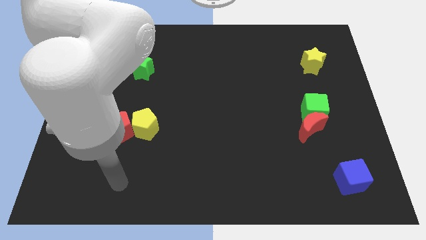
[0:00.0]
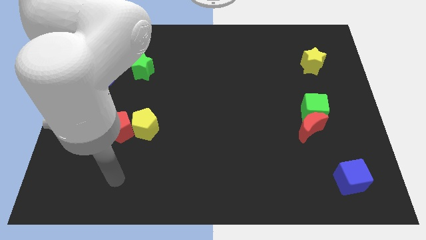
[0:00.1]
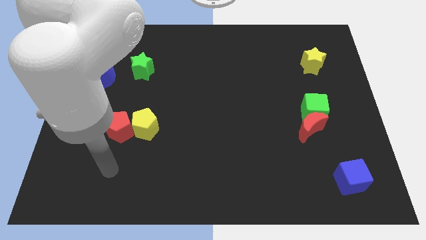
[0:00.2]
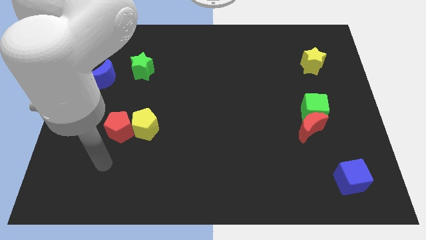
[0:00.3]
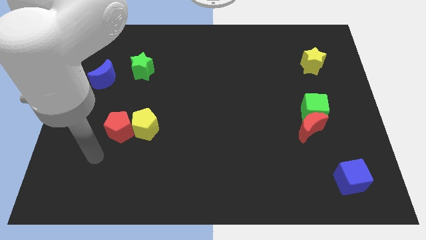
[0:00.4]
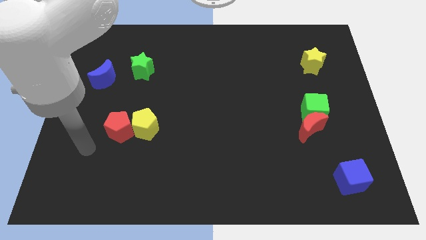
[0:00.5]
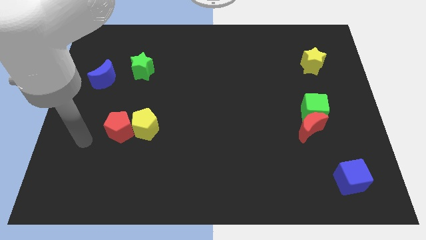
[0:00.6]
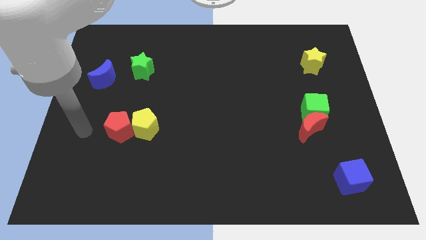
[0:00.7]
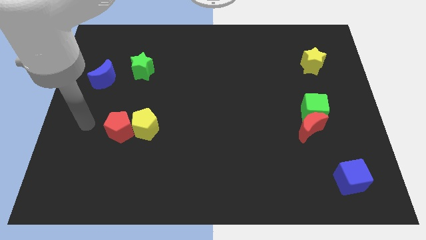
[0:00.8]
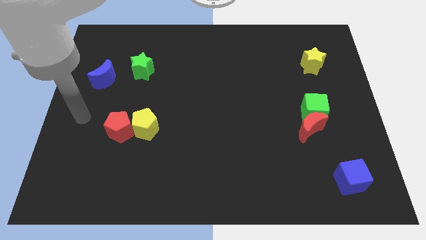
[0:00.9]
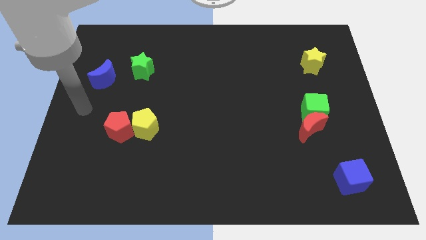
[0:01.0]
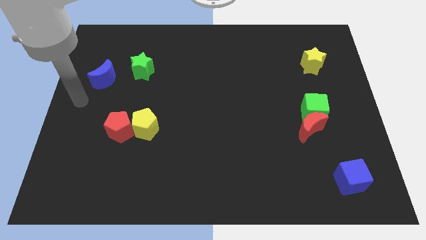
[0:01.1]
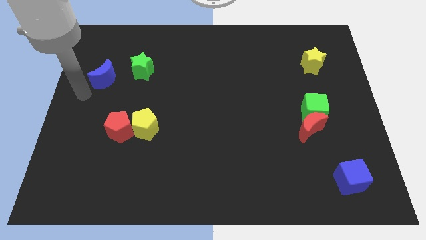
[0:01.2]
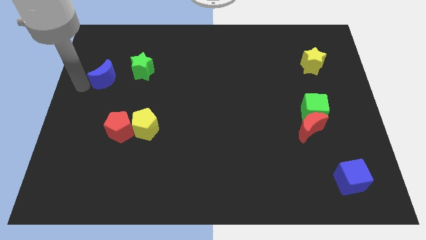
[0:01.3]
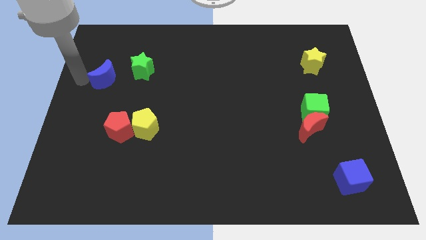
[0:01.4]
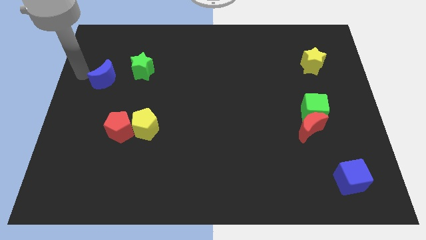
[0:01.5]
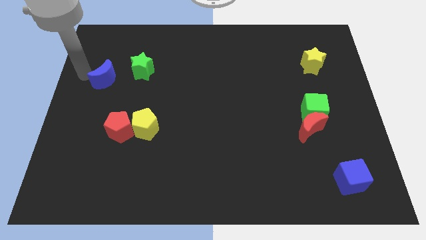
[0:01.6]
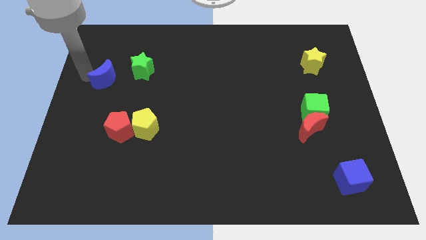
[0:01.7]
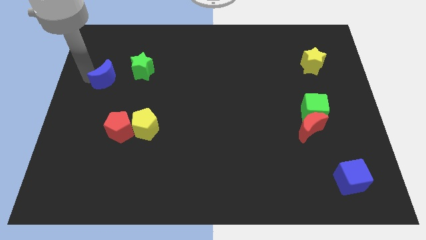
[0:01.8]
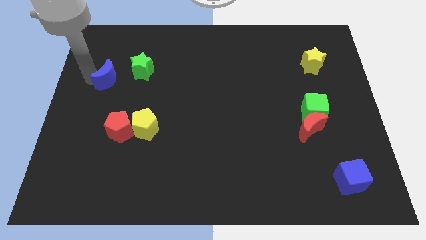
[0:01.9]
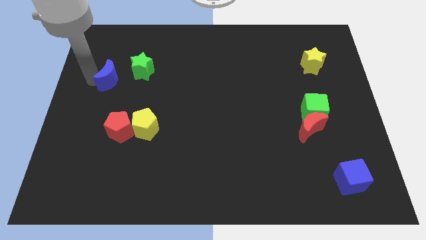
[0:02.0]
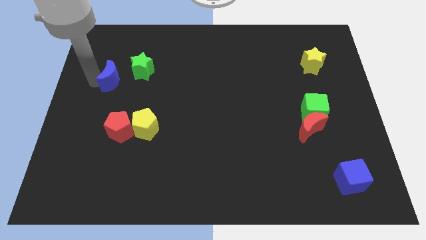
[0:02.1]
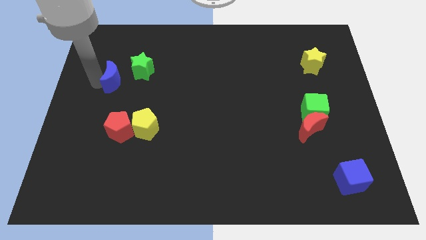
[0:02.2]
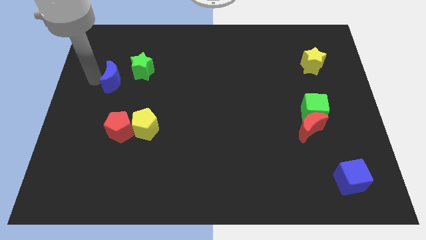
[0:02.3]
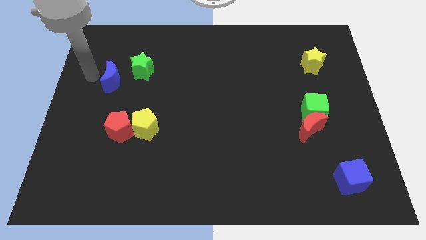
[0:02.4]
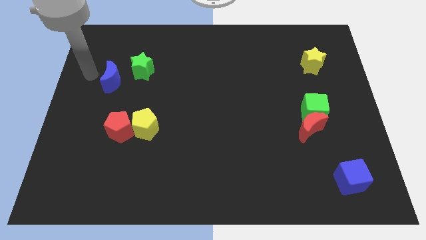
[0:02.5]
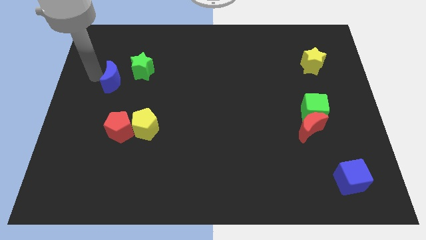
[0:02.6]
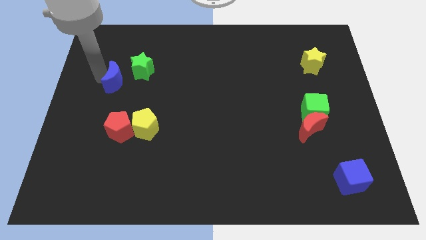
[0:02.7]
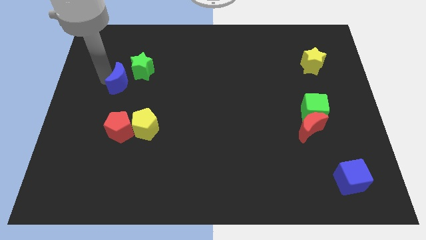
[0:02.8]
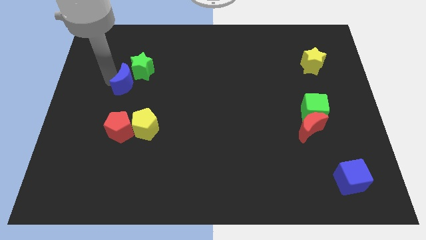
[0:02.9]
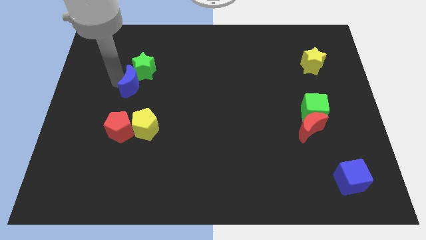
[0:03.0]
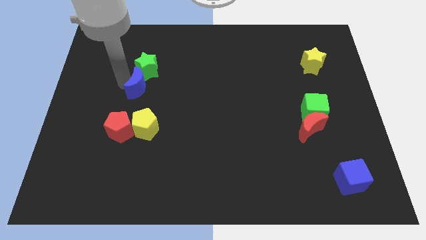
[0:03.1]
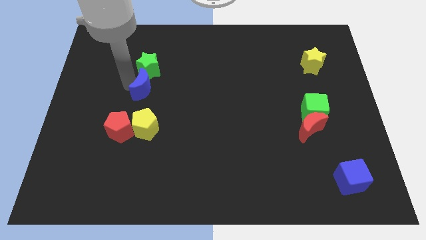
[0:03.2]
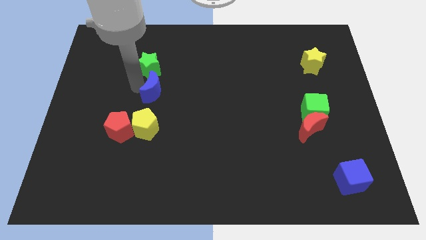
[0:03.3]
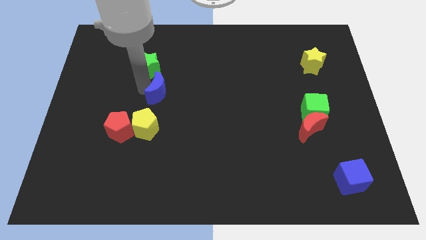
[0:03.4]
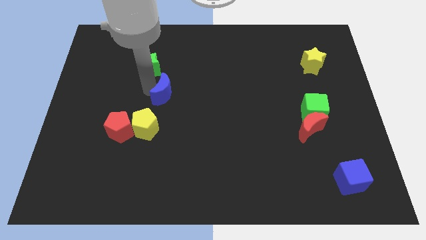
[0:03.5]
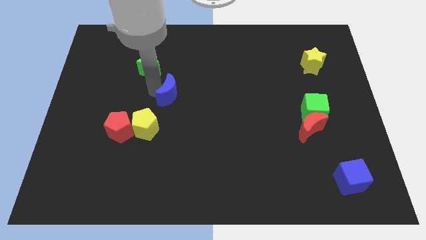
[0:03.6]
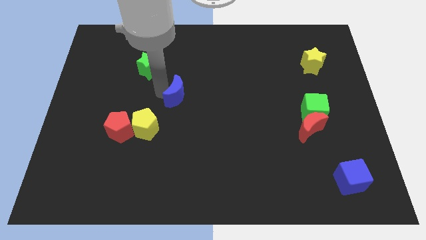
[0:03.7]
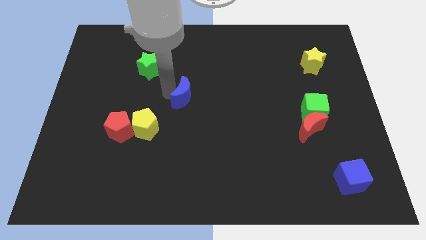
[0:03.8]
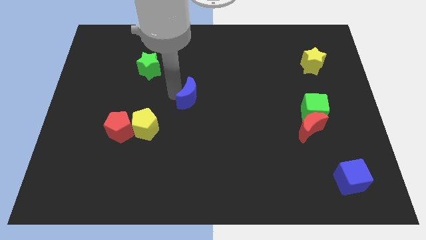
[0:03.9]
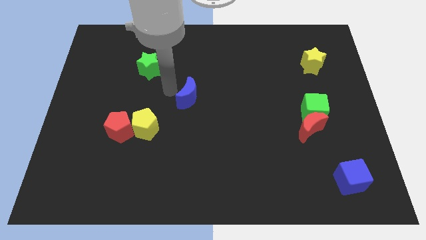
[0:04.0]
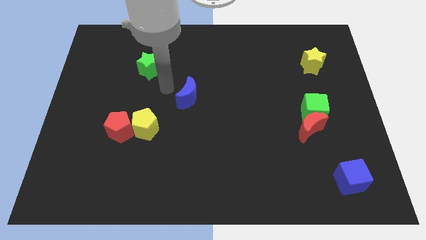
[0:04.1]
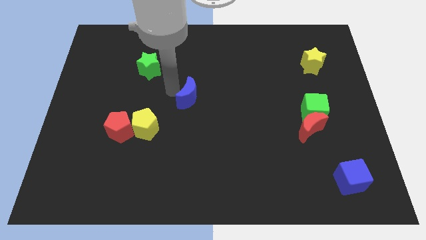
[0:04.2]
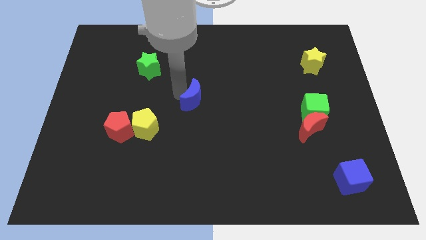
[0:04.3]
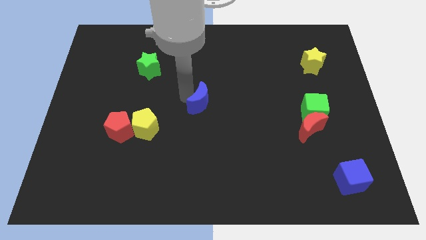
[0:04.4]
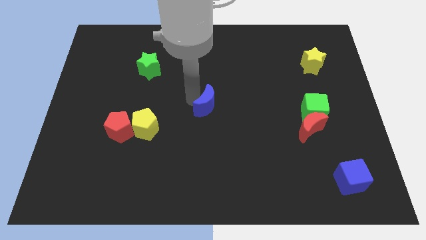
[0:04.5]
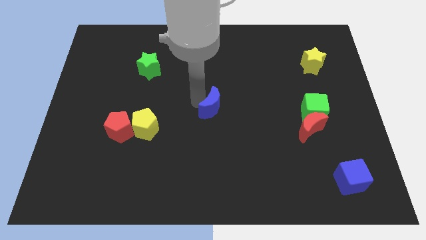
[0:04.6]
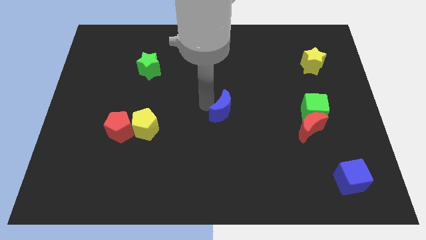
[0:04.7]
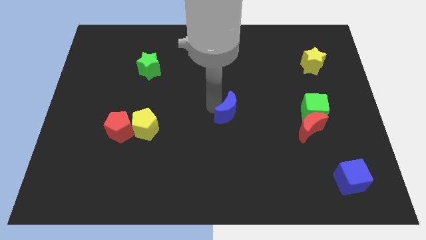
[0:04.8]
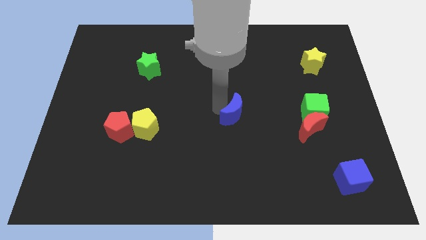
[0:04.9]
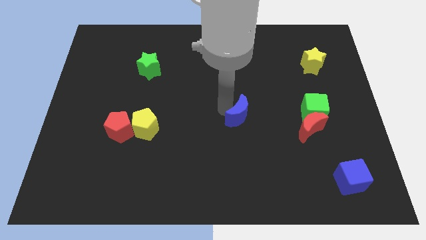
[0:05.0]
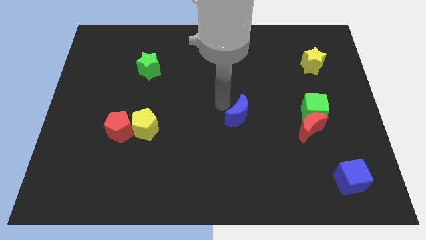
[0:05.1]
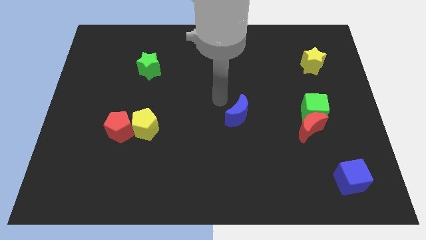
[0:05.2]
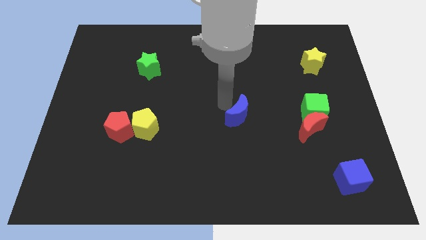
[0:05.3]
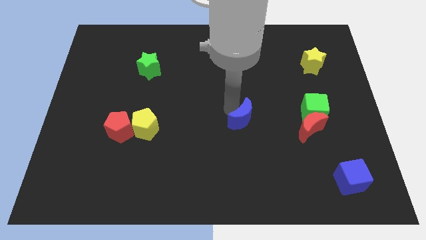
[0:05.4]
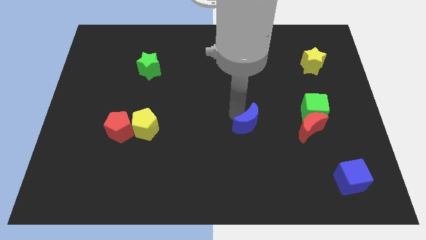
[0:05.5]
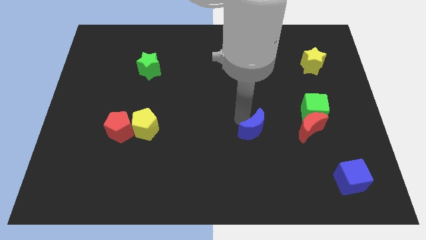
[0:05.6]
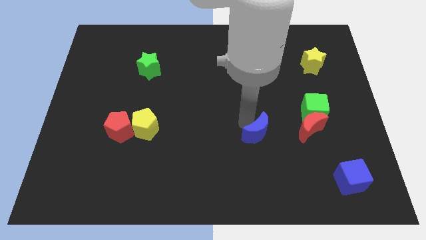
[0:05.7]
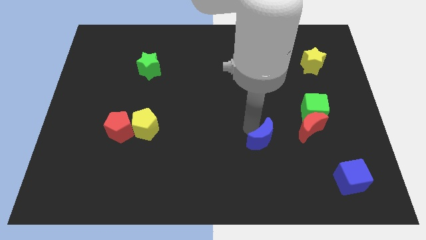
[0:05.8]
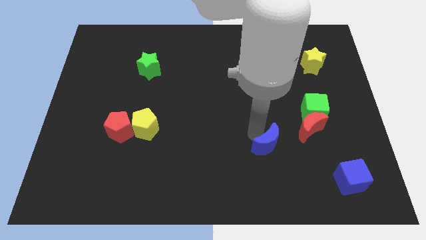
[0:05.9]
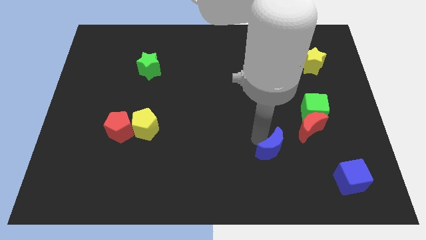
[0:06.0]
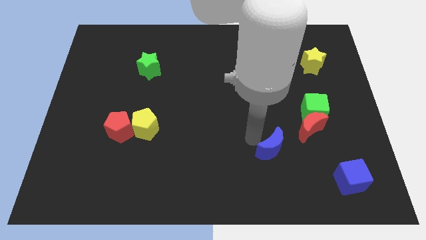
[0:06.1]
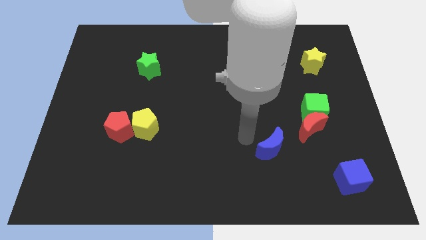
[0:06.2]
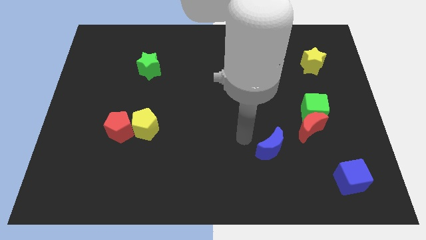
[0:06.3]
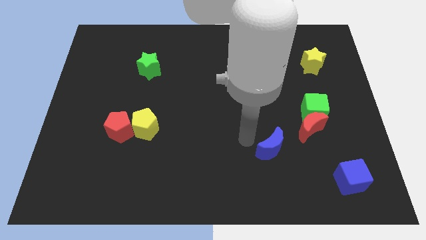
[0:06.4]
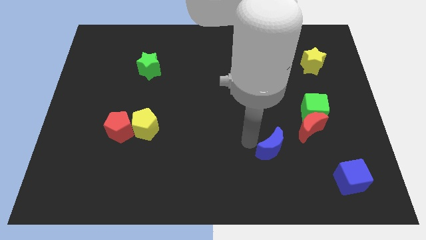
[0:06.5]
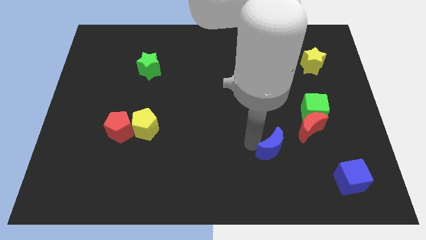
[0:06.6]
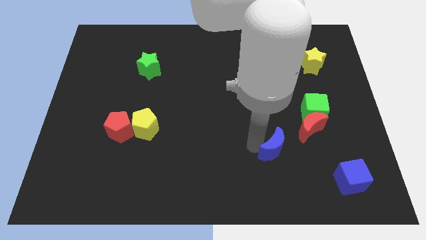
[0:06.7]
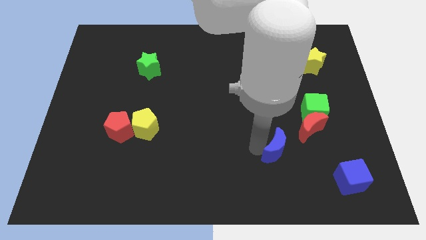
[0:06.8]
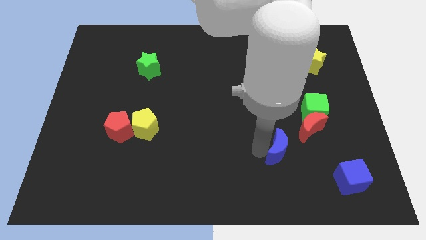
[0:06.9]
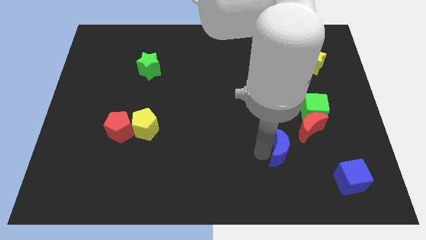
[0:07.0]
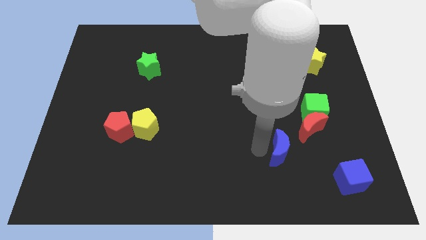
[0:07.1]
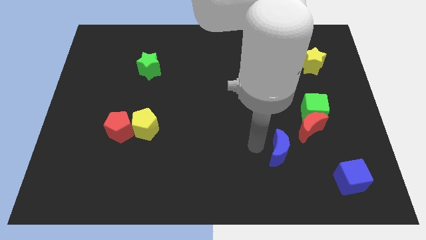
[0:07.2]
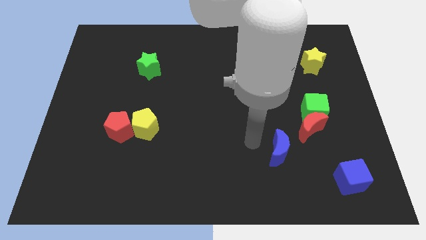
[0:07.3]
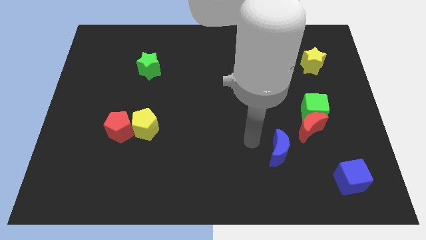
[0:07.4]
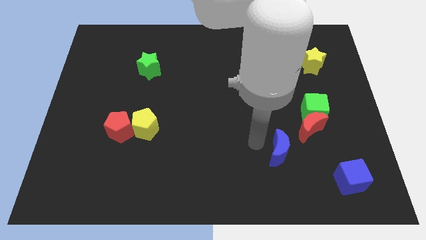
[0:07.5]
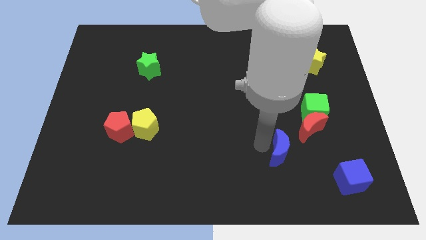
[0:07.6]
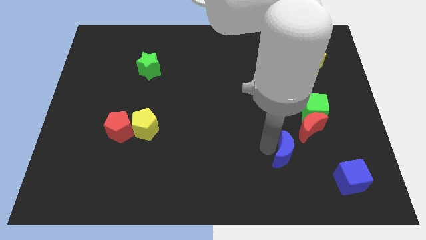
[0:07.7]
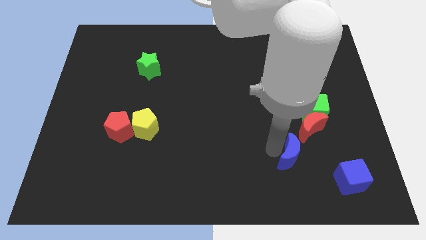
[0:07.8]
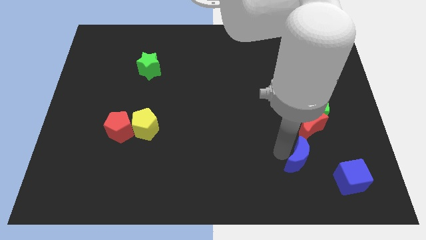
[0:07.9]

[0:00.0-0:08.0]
slide the blue moon to the bottom side of the red moon
